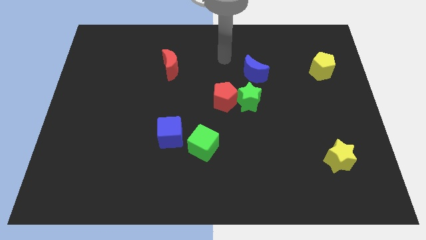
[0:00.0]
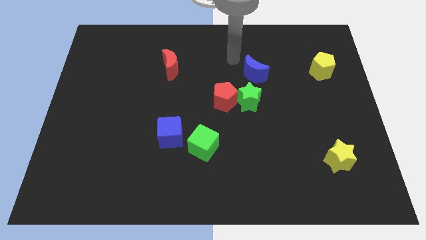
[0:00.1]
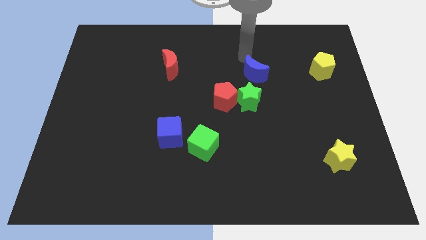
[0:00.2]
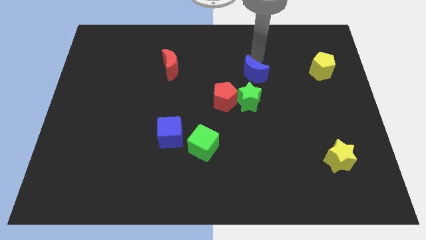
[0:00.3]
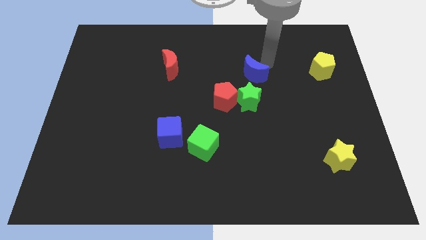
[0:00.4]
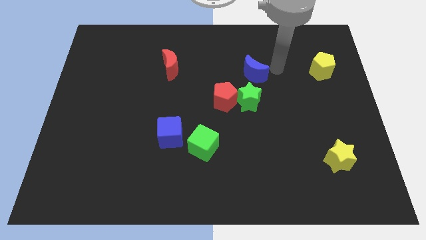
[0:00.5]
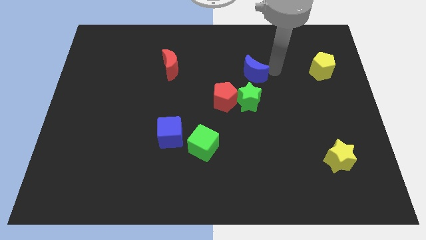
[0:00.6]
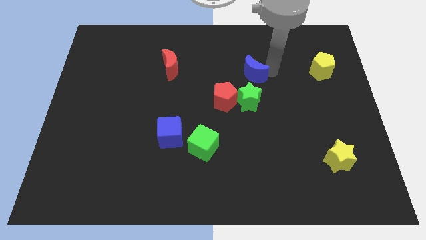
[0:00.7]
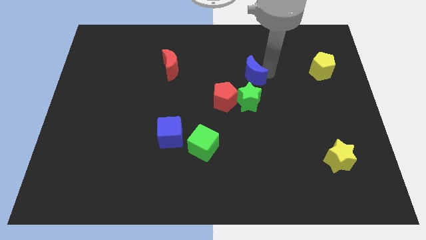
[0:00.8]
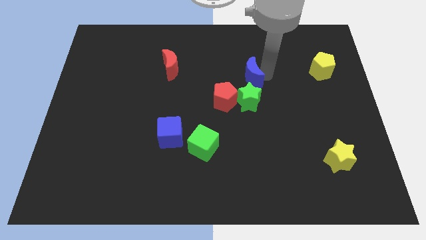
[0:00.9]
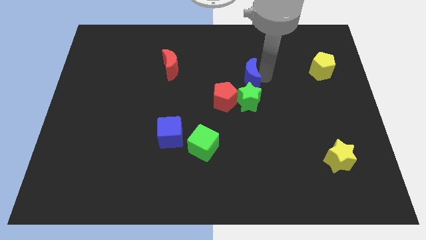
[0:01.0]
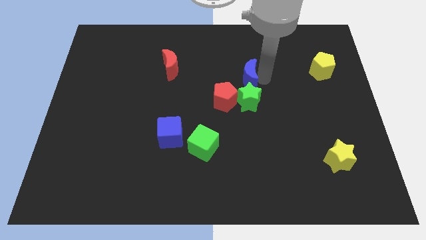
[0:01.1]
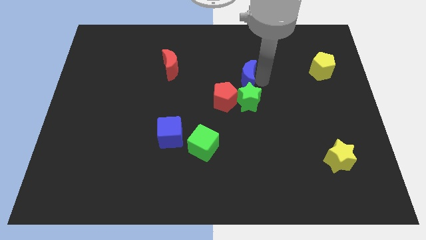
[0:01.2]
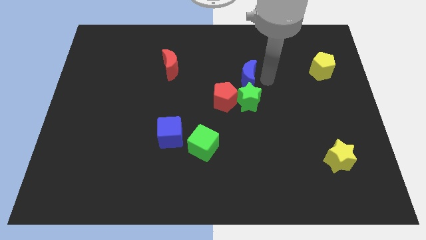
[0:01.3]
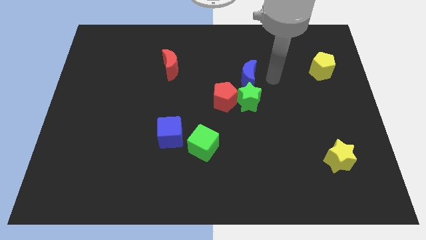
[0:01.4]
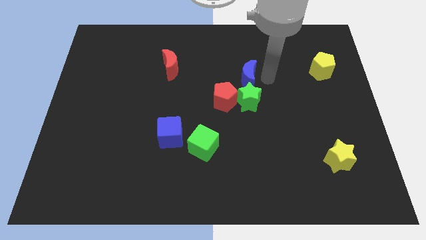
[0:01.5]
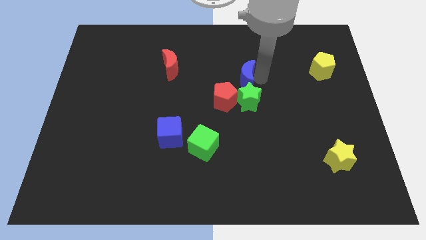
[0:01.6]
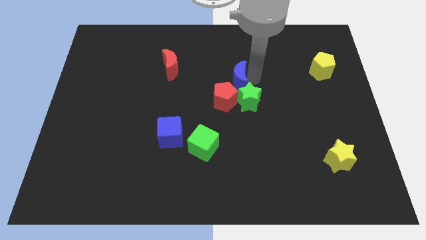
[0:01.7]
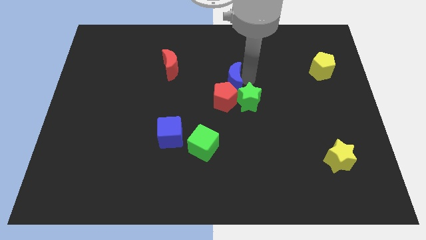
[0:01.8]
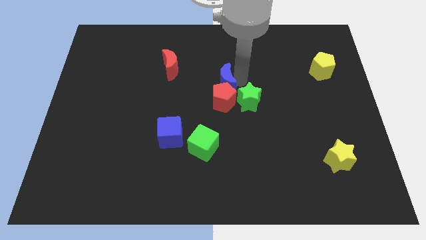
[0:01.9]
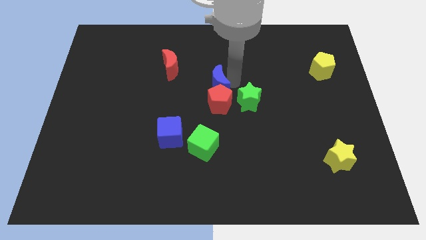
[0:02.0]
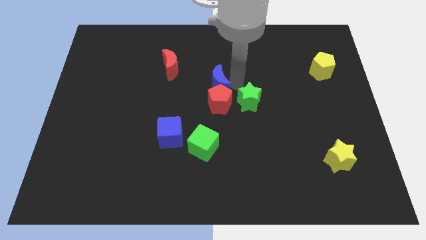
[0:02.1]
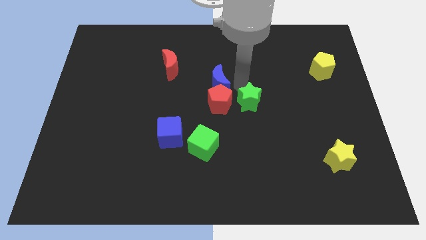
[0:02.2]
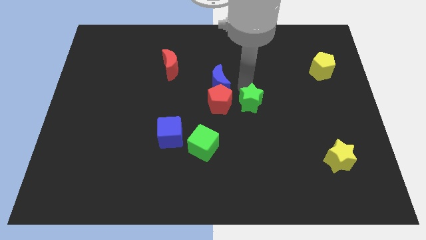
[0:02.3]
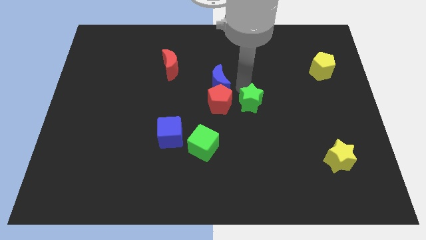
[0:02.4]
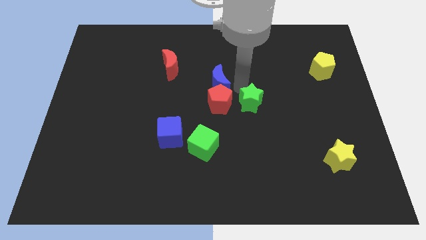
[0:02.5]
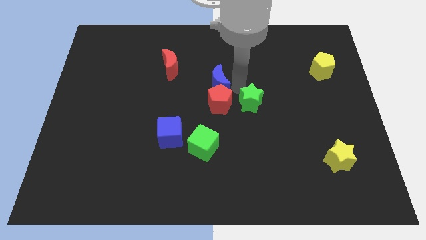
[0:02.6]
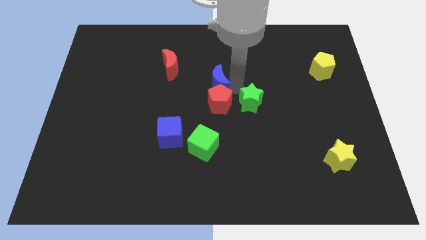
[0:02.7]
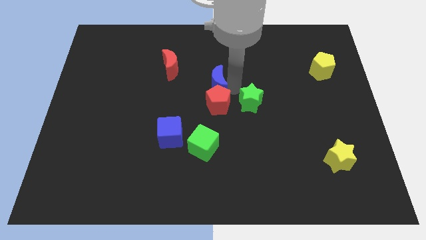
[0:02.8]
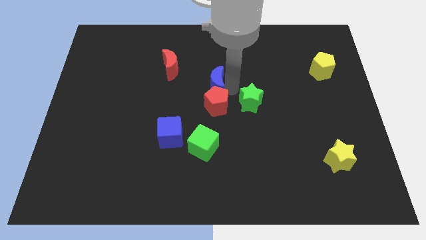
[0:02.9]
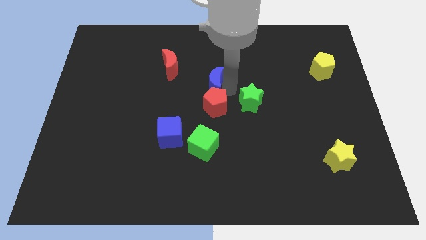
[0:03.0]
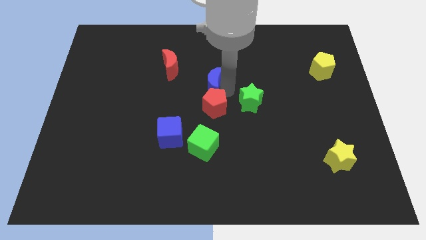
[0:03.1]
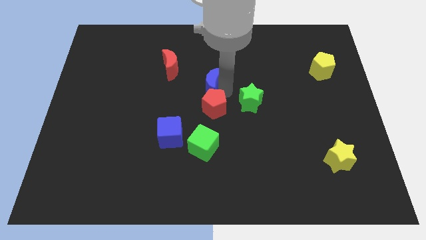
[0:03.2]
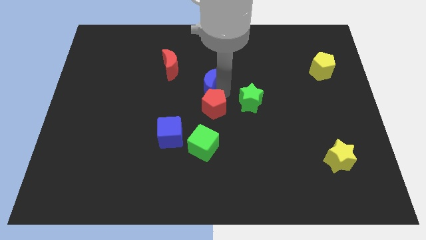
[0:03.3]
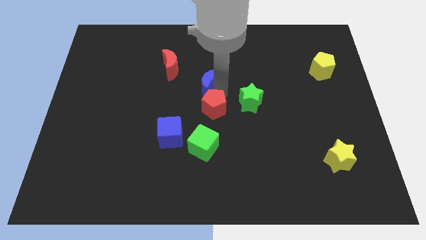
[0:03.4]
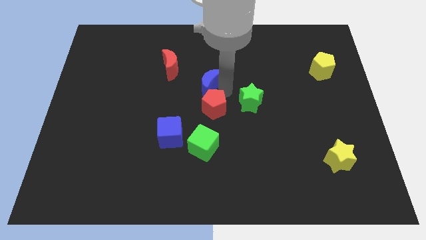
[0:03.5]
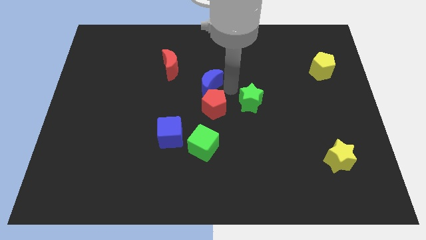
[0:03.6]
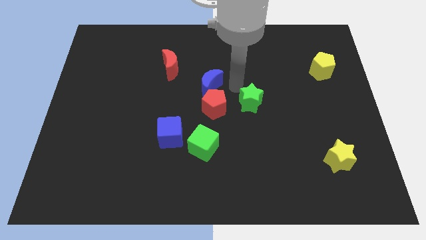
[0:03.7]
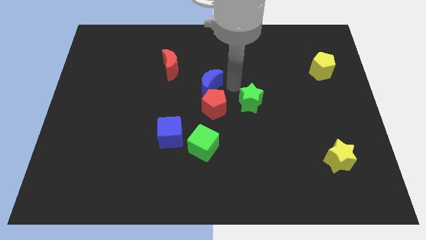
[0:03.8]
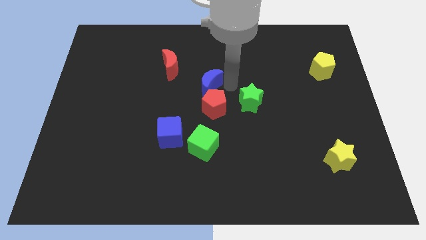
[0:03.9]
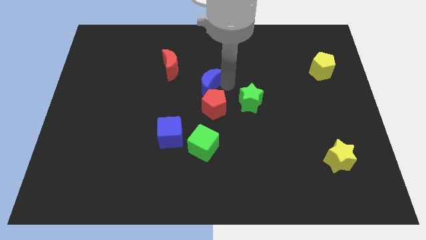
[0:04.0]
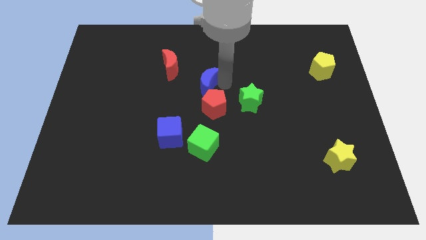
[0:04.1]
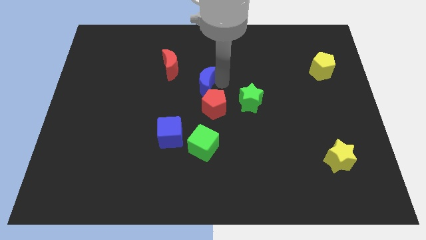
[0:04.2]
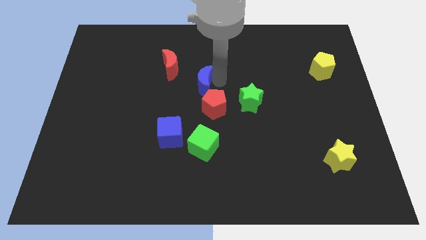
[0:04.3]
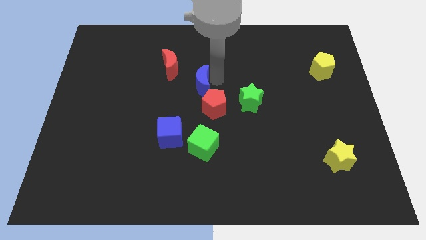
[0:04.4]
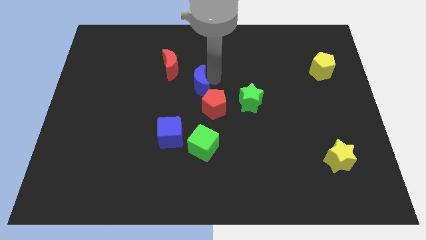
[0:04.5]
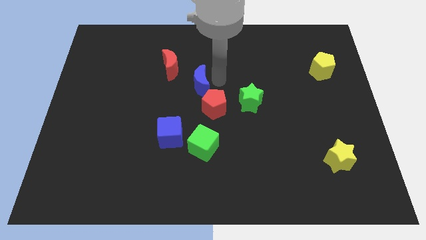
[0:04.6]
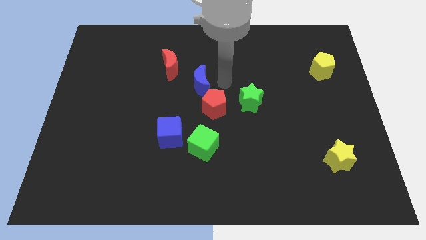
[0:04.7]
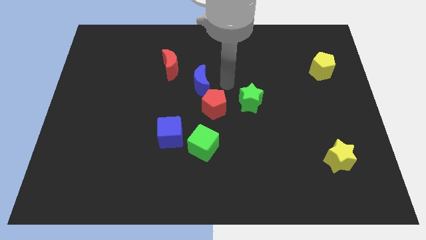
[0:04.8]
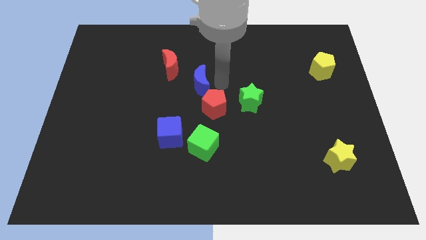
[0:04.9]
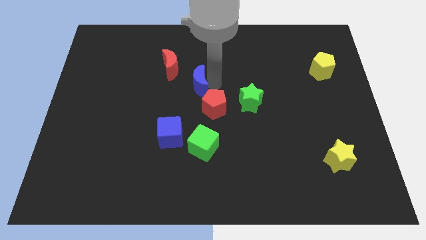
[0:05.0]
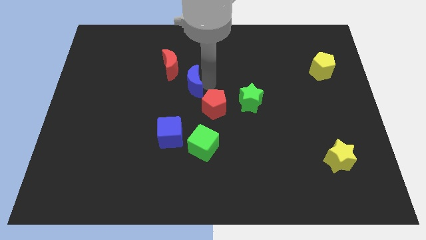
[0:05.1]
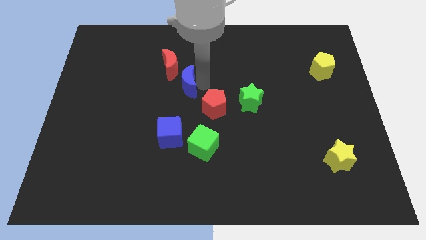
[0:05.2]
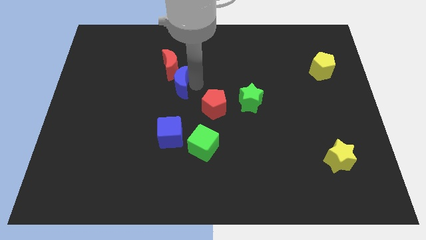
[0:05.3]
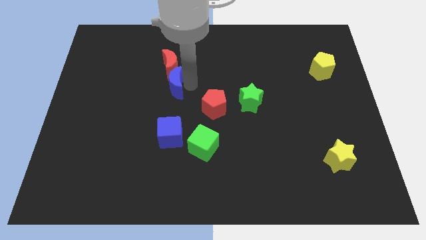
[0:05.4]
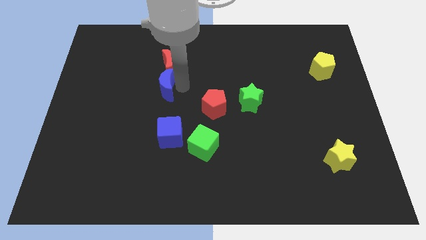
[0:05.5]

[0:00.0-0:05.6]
move the blue moon left

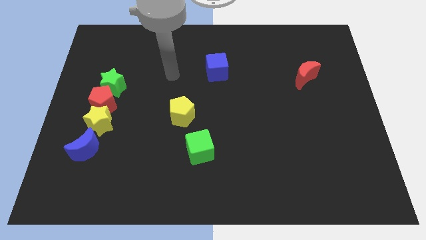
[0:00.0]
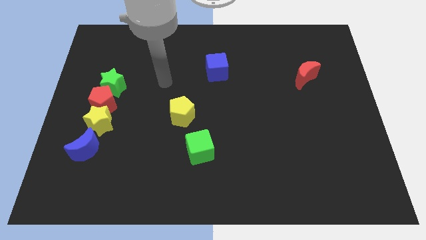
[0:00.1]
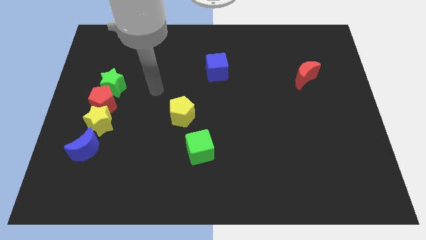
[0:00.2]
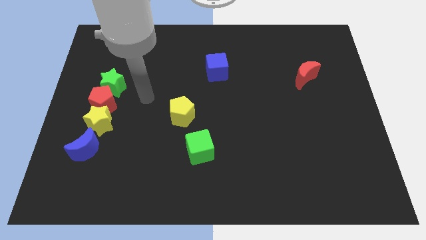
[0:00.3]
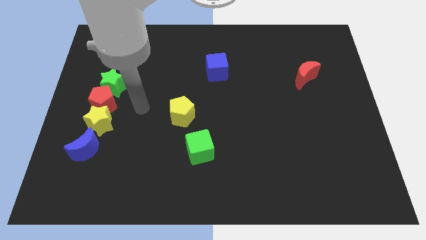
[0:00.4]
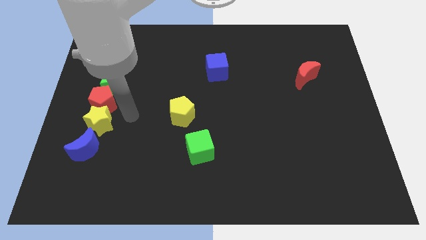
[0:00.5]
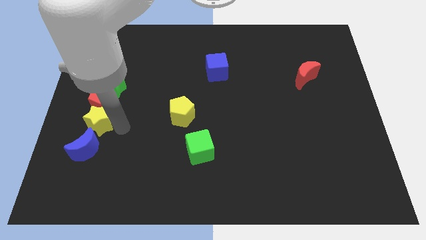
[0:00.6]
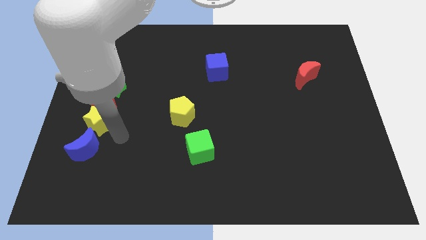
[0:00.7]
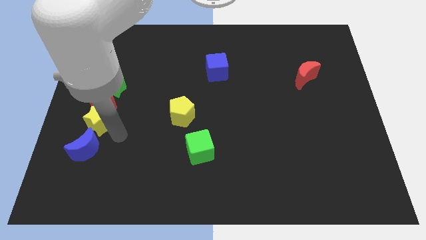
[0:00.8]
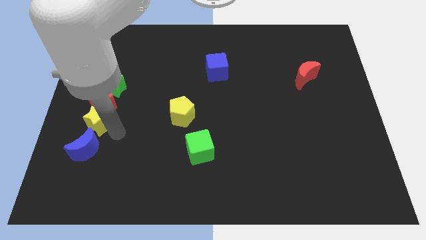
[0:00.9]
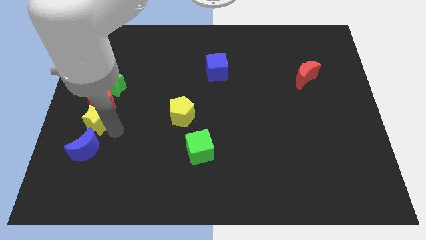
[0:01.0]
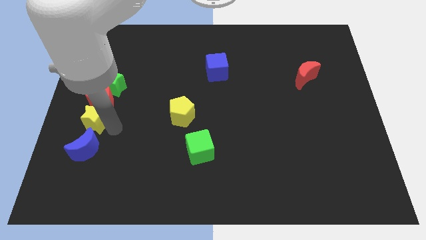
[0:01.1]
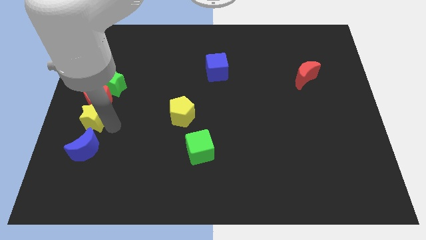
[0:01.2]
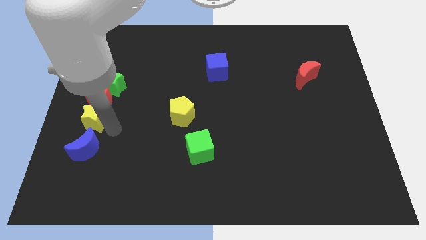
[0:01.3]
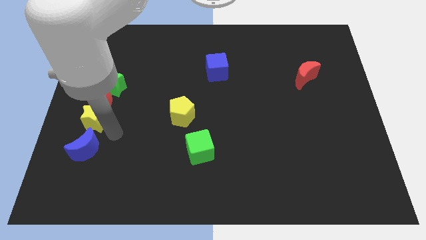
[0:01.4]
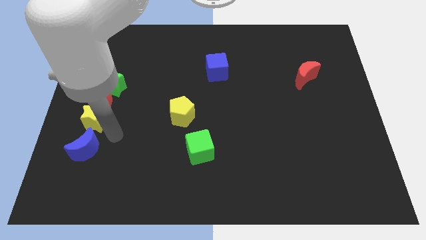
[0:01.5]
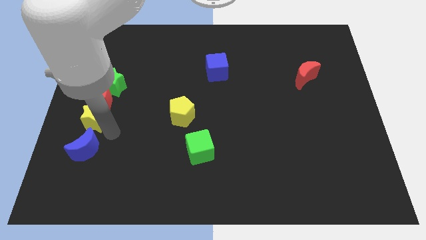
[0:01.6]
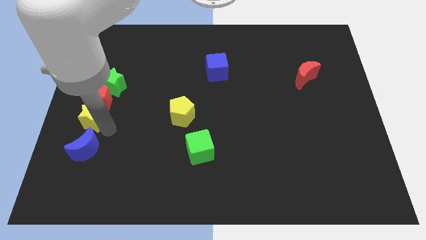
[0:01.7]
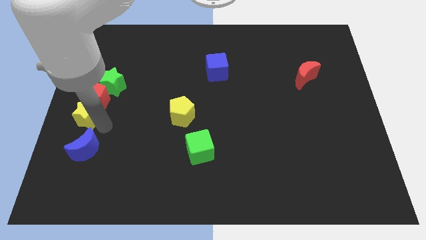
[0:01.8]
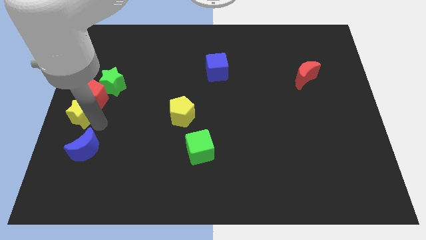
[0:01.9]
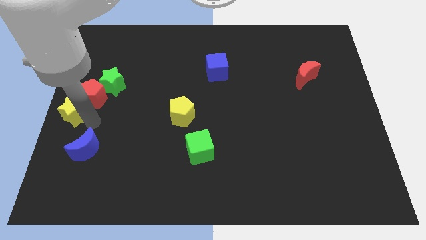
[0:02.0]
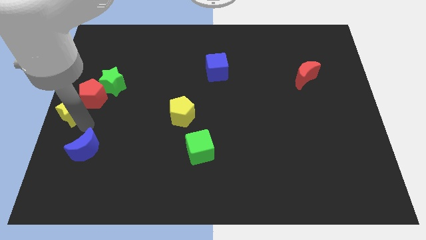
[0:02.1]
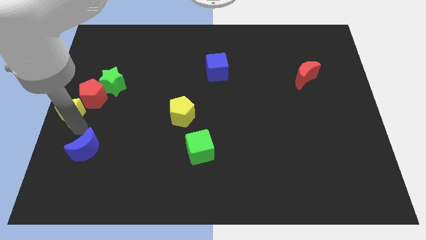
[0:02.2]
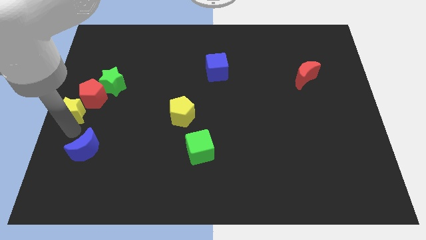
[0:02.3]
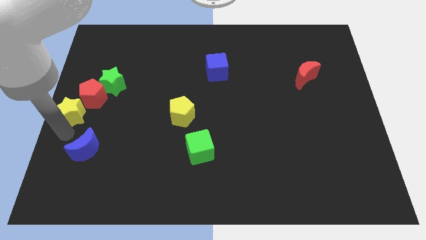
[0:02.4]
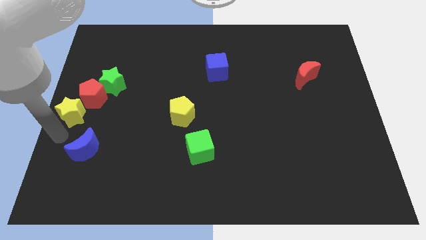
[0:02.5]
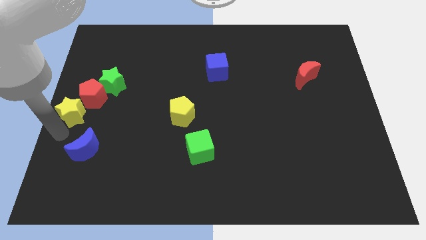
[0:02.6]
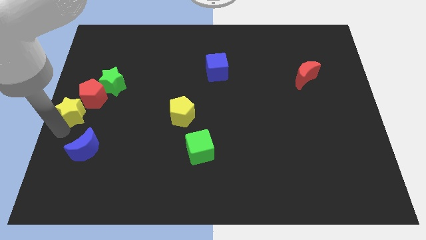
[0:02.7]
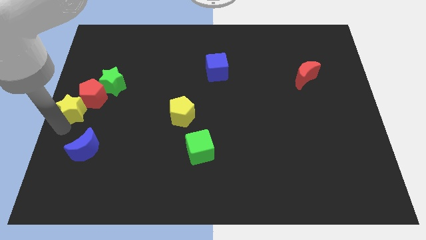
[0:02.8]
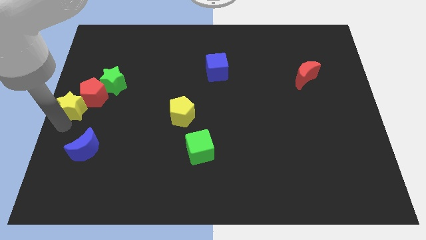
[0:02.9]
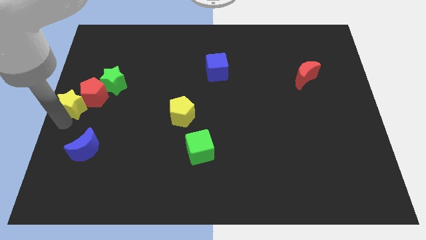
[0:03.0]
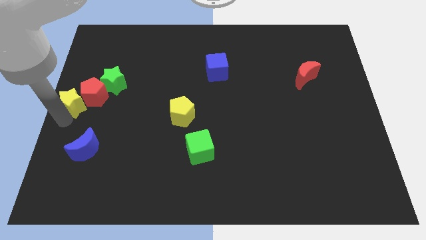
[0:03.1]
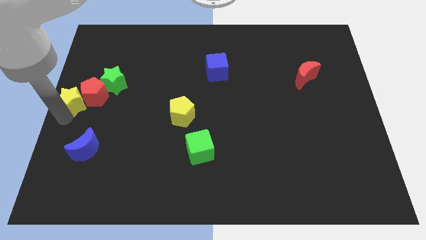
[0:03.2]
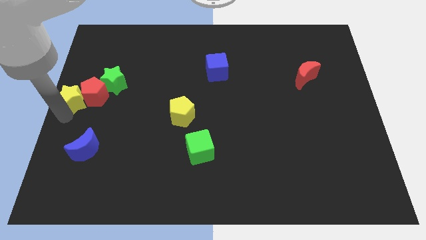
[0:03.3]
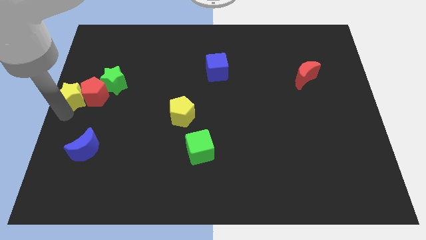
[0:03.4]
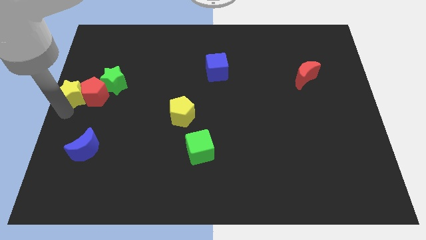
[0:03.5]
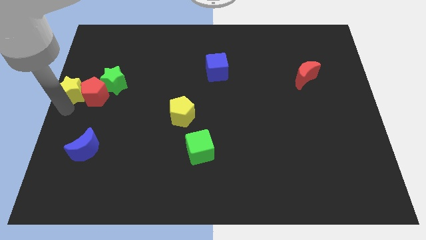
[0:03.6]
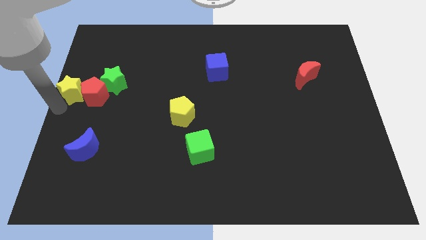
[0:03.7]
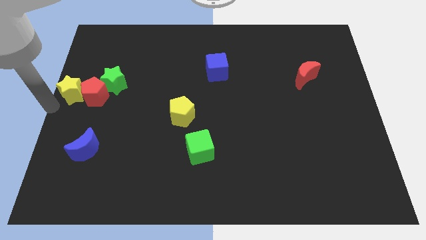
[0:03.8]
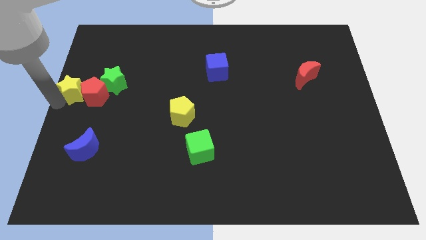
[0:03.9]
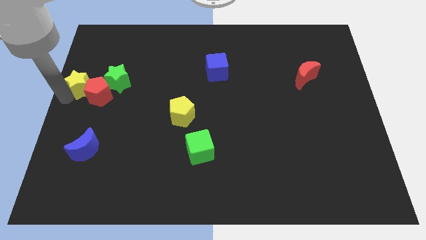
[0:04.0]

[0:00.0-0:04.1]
slightly slide the yellow star upwards
